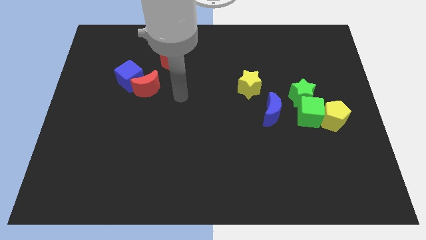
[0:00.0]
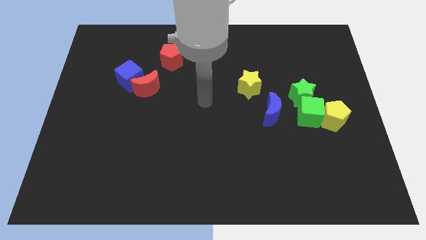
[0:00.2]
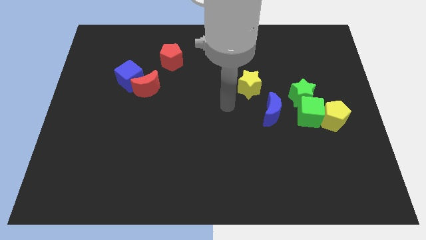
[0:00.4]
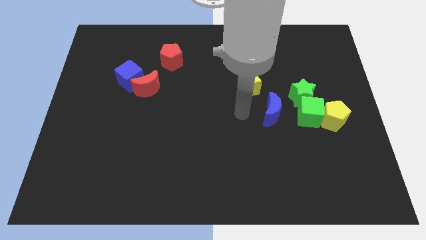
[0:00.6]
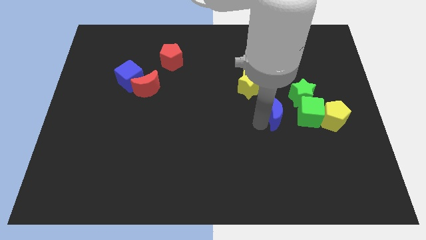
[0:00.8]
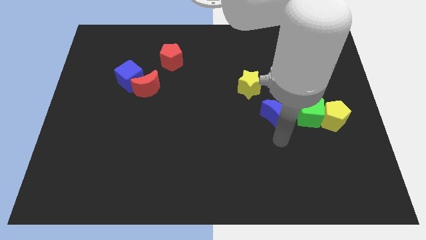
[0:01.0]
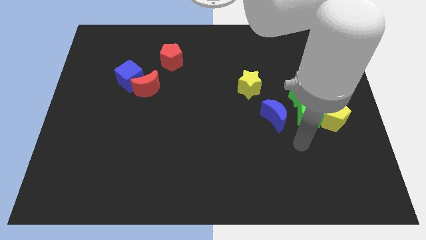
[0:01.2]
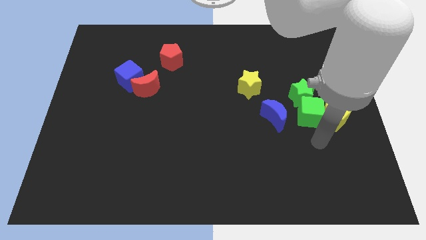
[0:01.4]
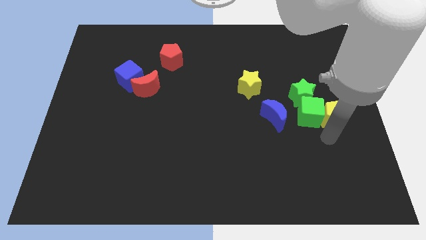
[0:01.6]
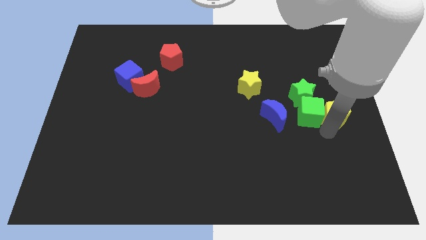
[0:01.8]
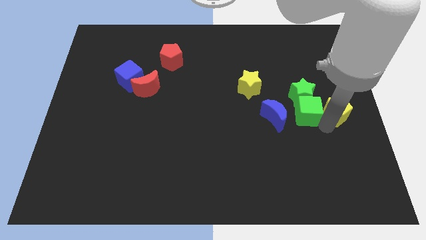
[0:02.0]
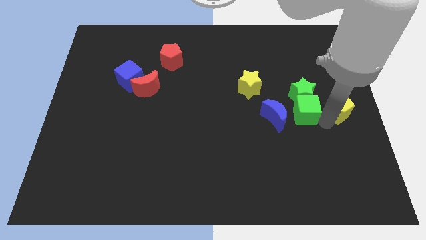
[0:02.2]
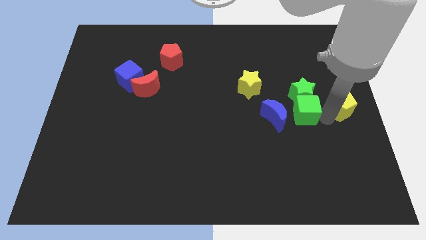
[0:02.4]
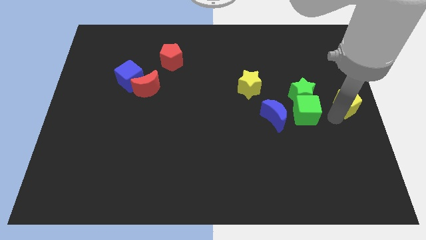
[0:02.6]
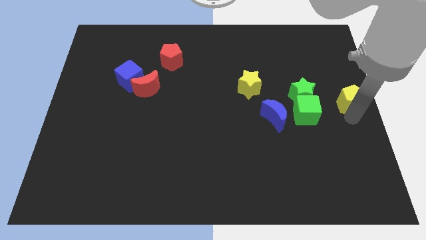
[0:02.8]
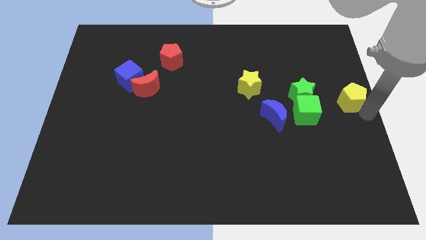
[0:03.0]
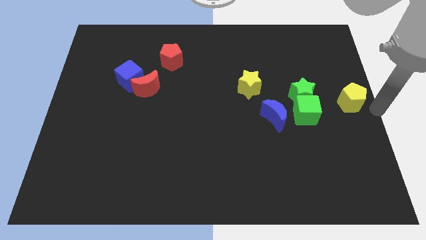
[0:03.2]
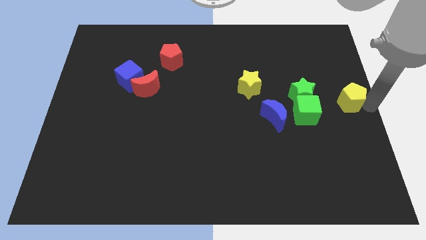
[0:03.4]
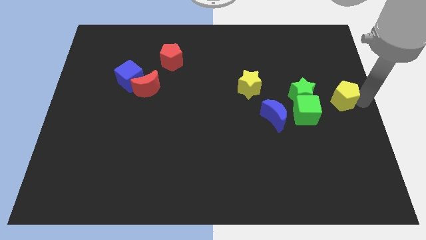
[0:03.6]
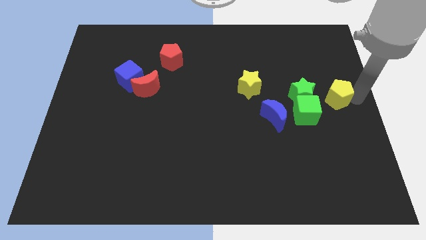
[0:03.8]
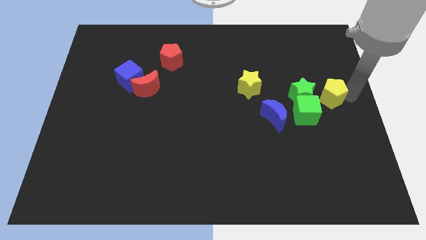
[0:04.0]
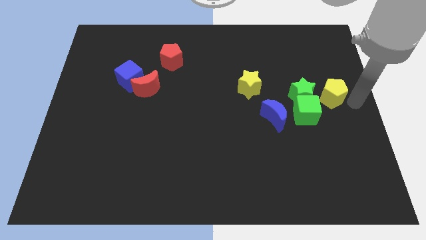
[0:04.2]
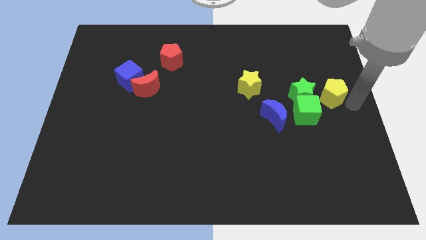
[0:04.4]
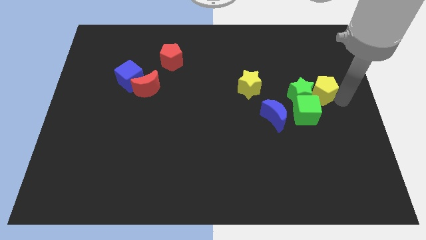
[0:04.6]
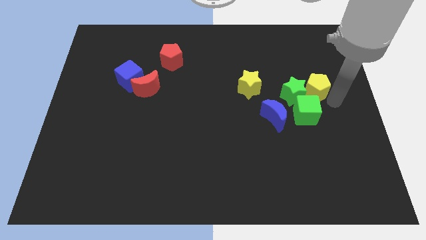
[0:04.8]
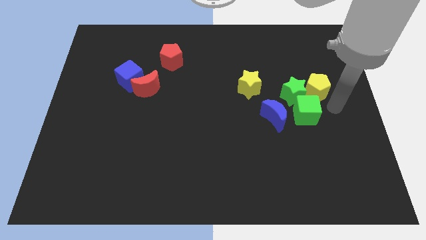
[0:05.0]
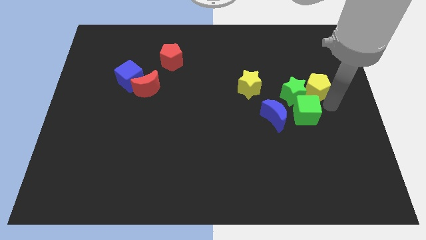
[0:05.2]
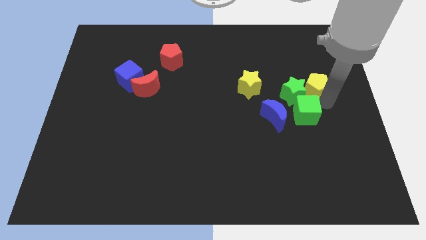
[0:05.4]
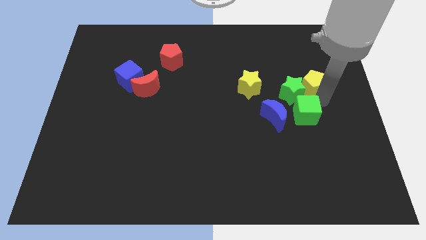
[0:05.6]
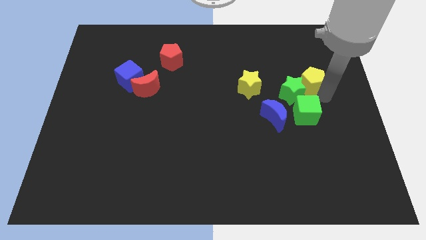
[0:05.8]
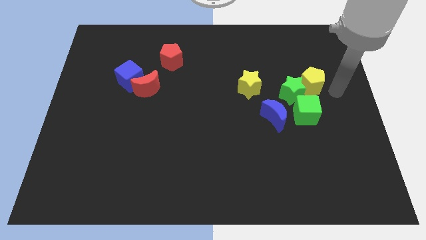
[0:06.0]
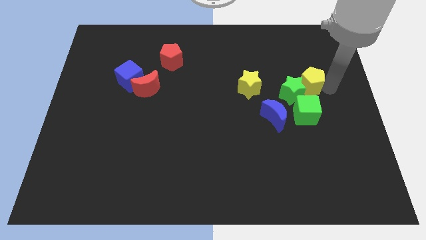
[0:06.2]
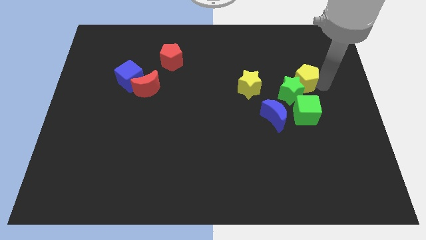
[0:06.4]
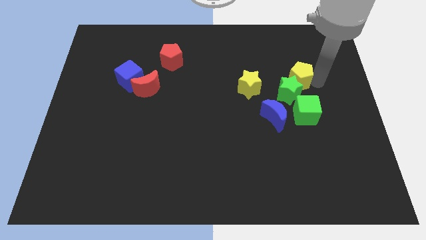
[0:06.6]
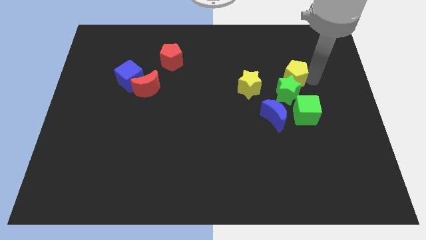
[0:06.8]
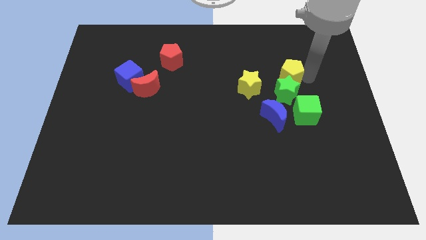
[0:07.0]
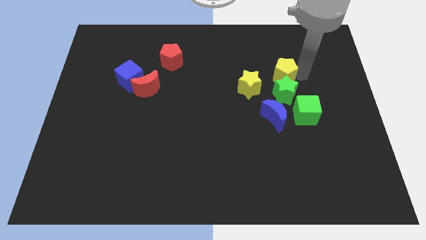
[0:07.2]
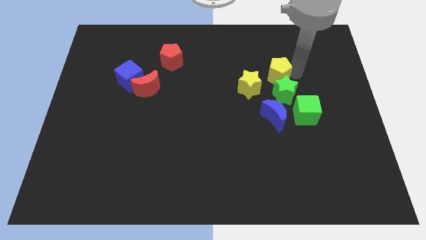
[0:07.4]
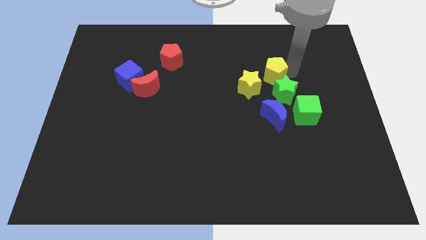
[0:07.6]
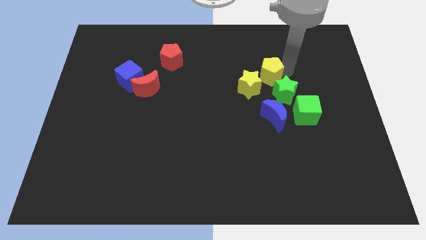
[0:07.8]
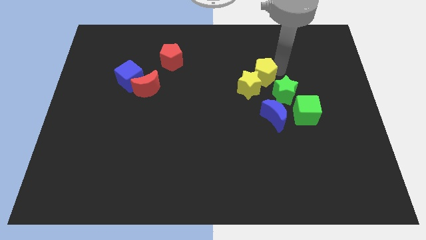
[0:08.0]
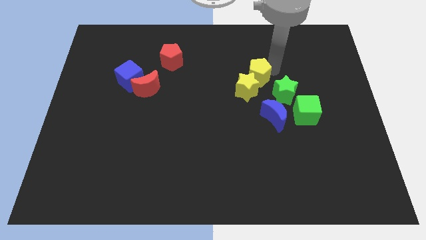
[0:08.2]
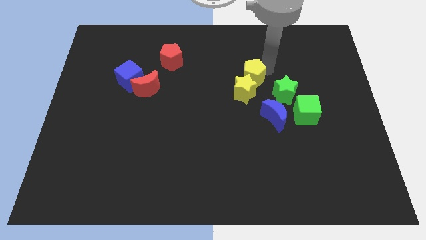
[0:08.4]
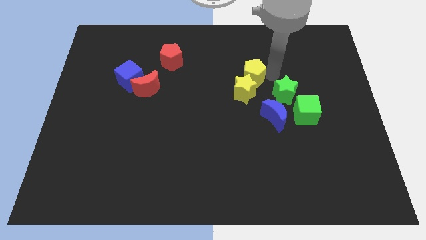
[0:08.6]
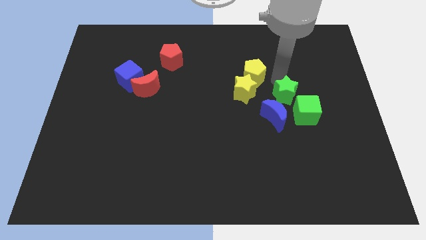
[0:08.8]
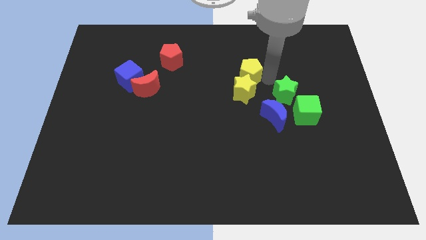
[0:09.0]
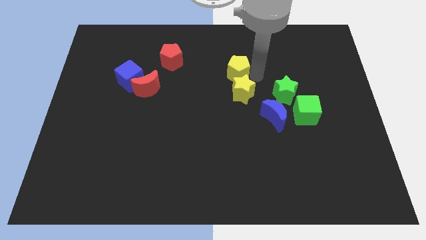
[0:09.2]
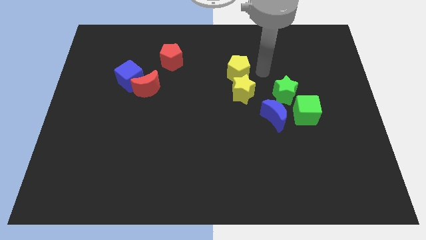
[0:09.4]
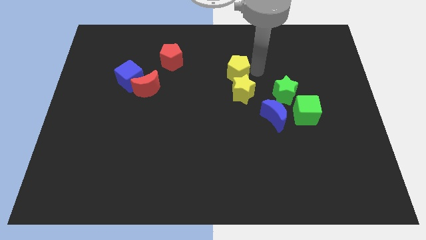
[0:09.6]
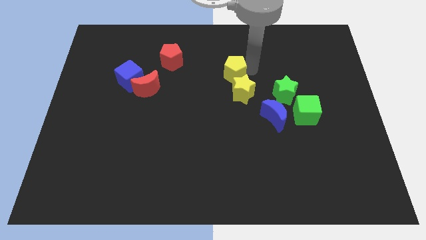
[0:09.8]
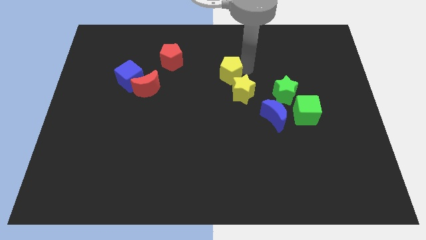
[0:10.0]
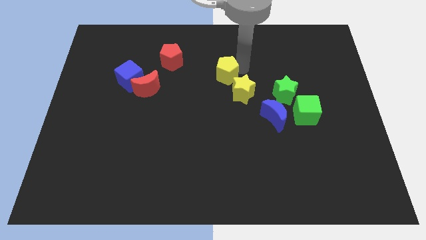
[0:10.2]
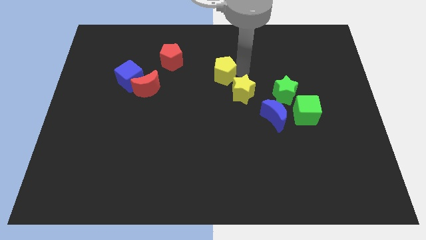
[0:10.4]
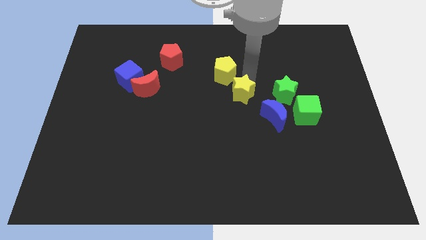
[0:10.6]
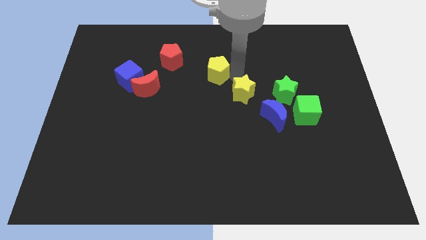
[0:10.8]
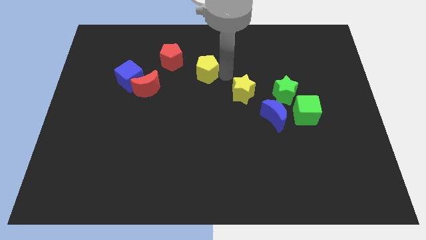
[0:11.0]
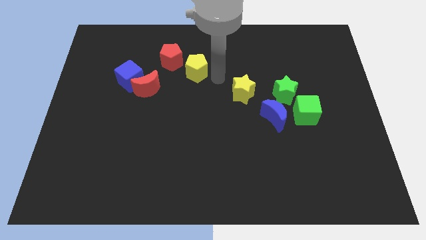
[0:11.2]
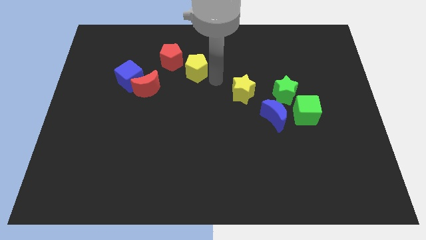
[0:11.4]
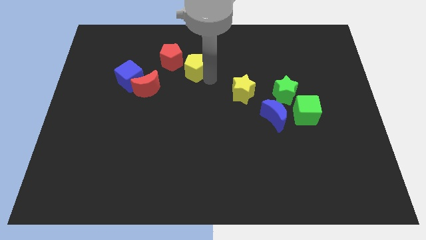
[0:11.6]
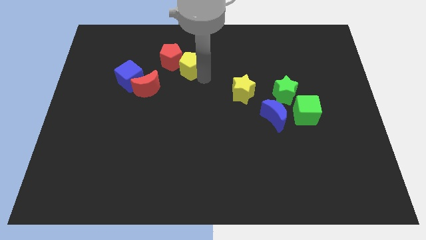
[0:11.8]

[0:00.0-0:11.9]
slide the yellow pentagon next to the red pentagon

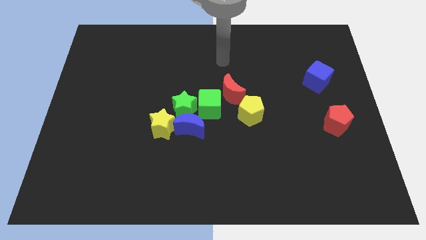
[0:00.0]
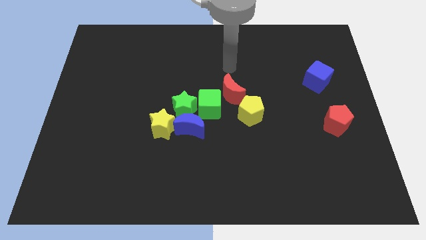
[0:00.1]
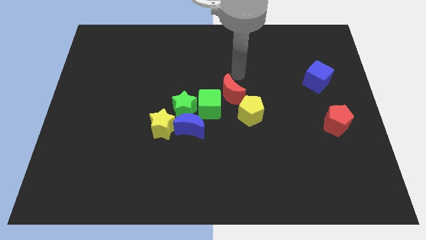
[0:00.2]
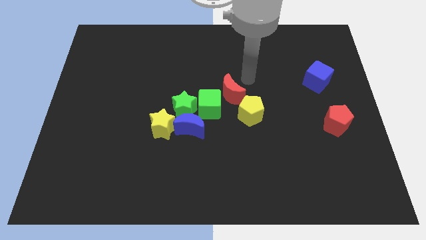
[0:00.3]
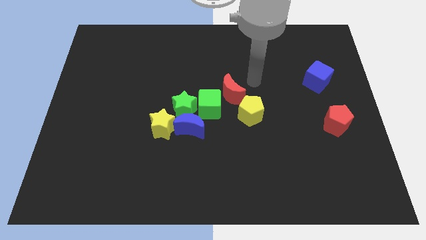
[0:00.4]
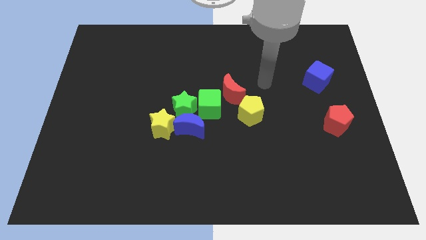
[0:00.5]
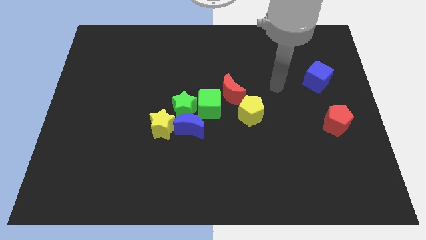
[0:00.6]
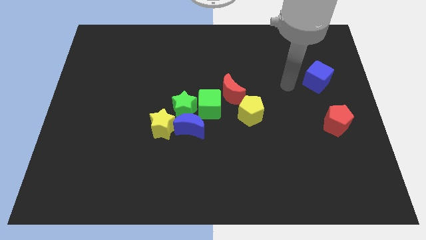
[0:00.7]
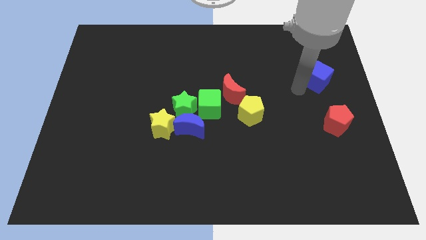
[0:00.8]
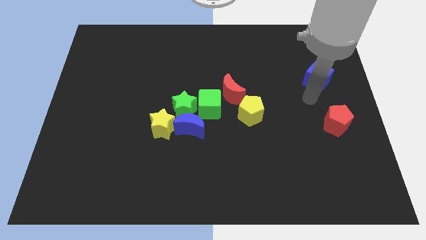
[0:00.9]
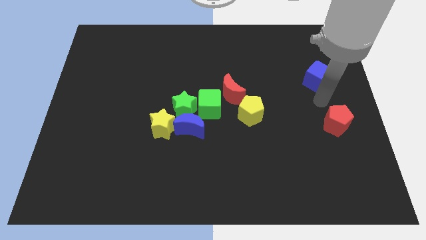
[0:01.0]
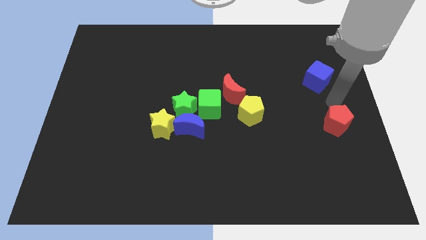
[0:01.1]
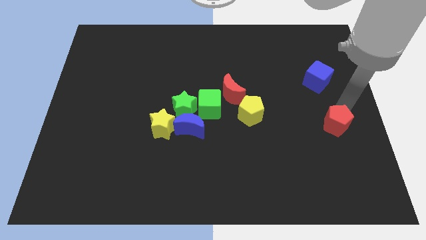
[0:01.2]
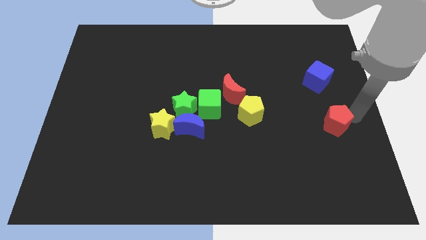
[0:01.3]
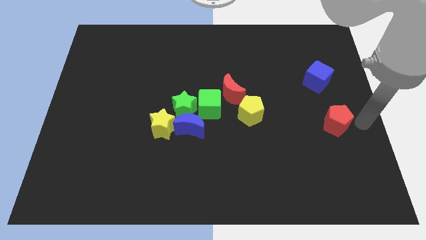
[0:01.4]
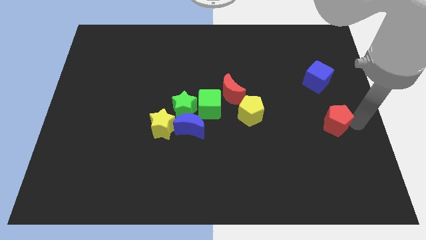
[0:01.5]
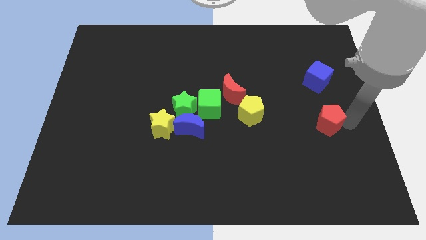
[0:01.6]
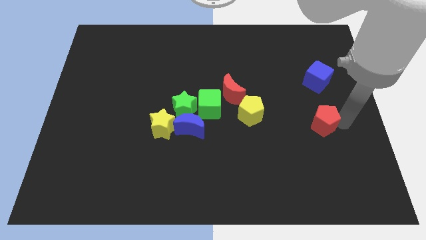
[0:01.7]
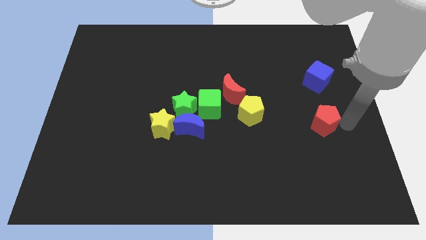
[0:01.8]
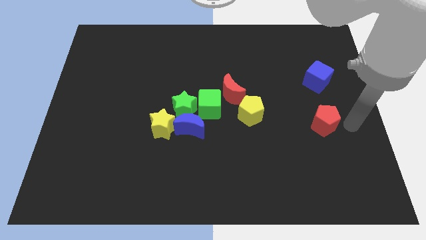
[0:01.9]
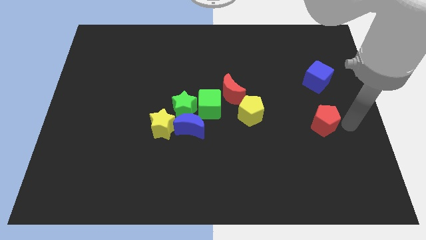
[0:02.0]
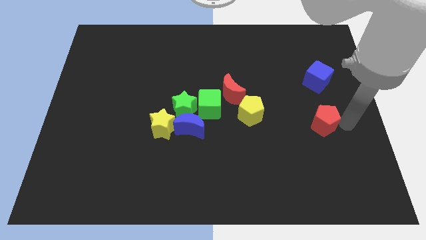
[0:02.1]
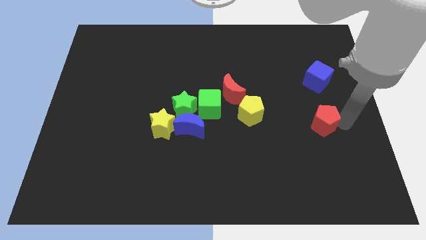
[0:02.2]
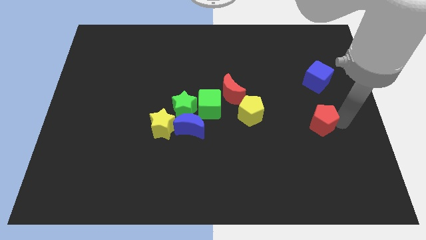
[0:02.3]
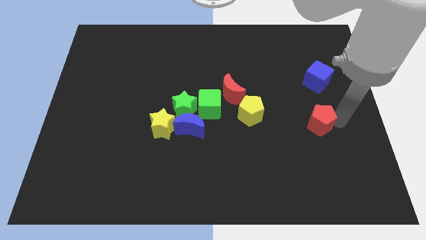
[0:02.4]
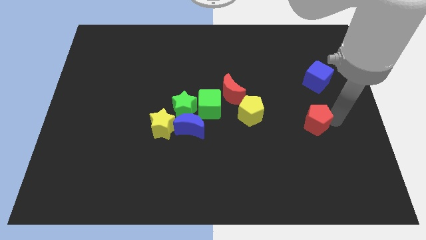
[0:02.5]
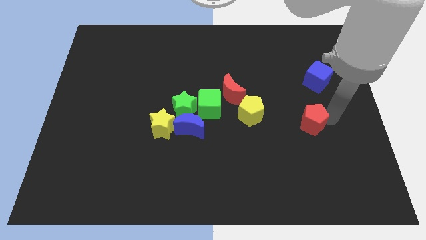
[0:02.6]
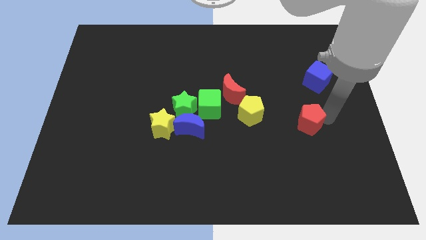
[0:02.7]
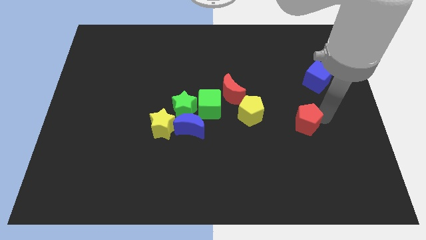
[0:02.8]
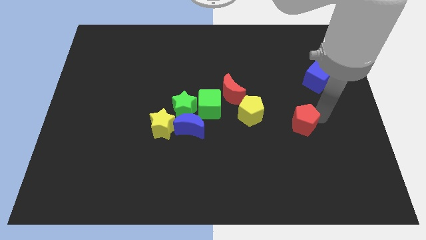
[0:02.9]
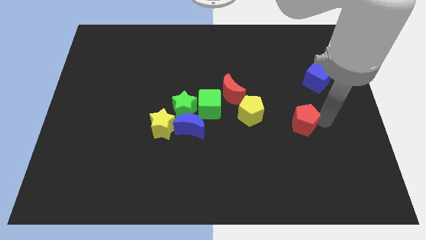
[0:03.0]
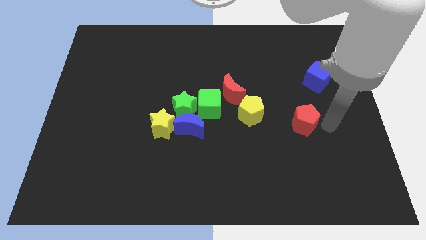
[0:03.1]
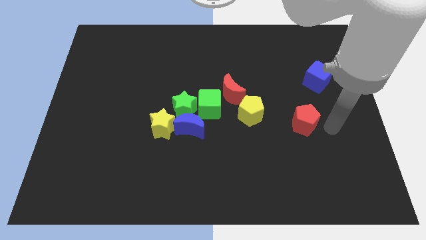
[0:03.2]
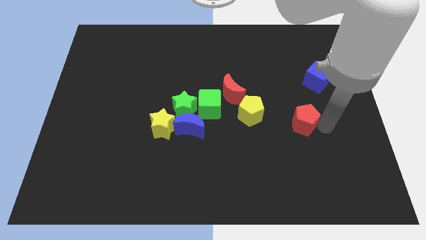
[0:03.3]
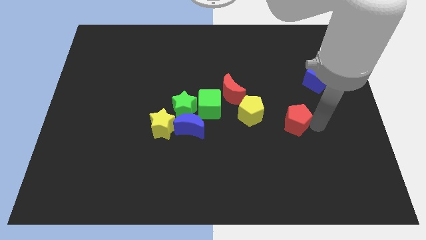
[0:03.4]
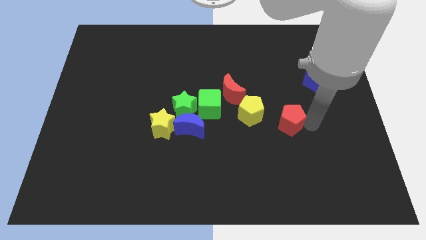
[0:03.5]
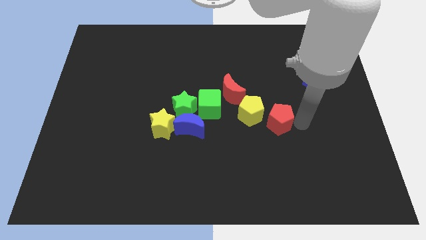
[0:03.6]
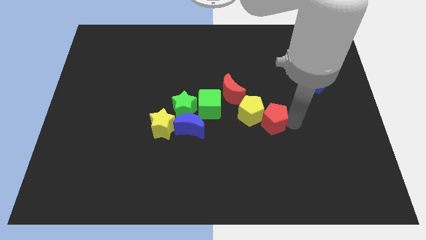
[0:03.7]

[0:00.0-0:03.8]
put the red pentagon next to the yellow pentagon
